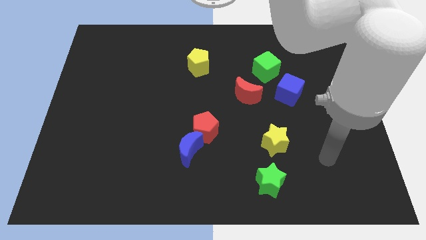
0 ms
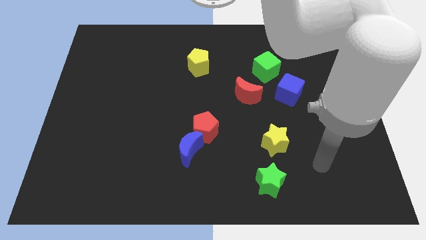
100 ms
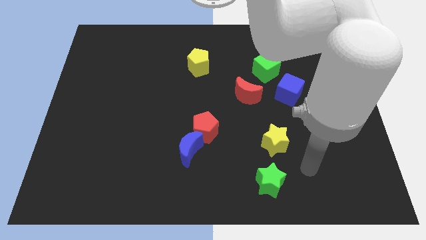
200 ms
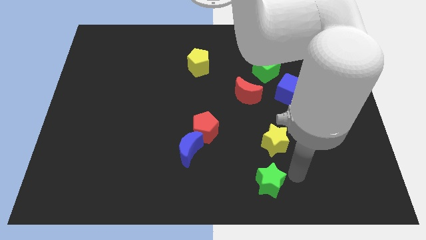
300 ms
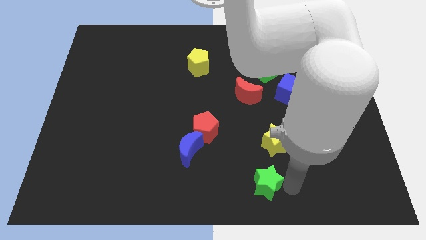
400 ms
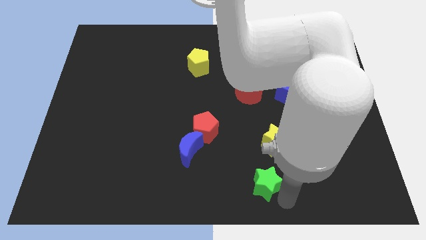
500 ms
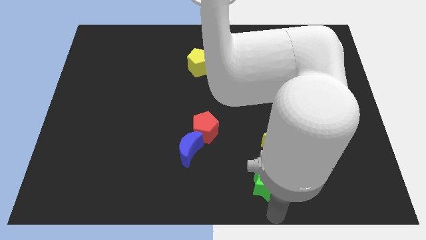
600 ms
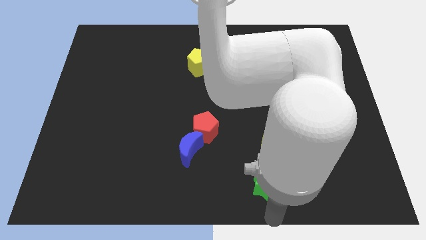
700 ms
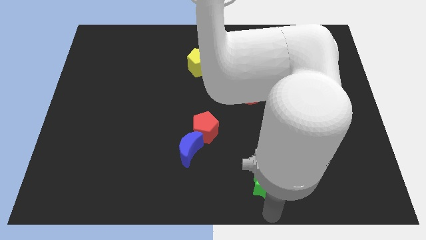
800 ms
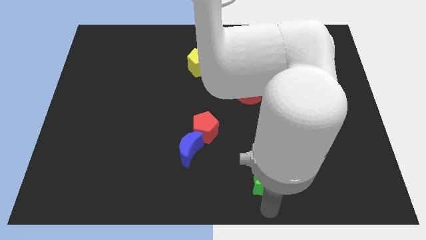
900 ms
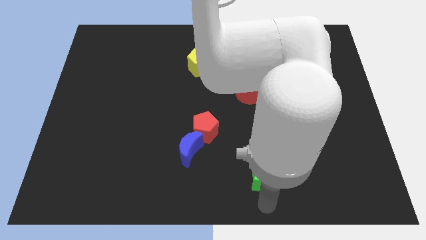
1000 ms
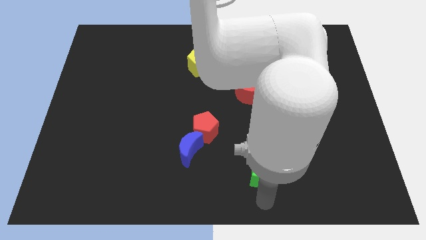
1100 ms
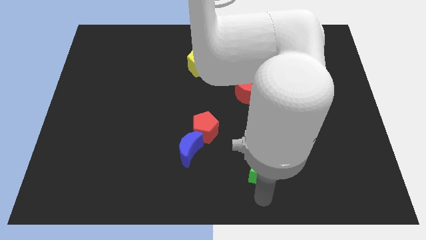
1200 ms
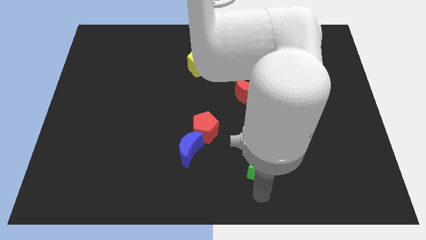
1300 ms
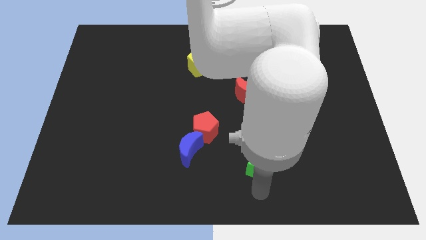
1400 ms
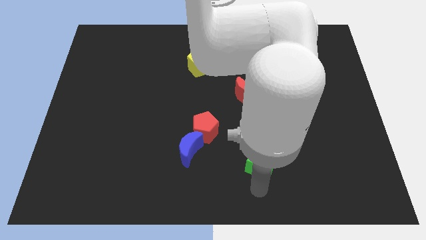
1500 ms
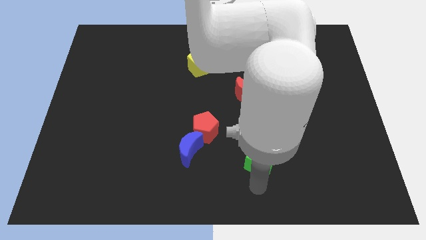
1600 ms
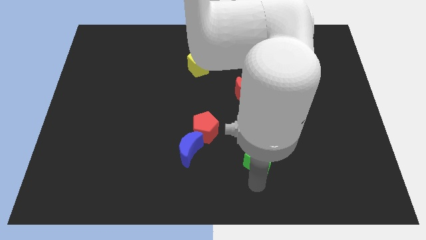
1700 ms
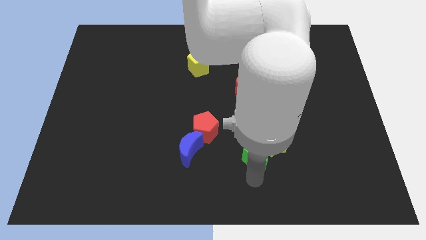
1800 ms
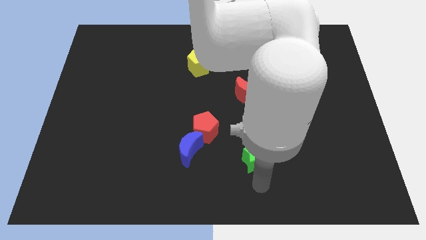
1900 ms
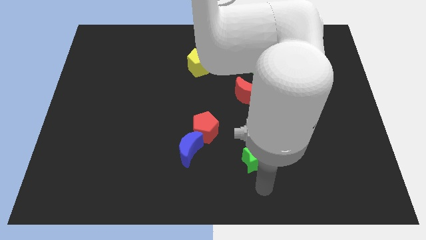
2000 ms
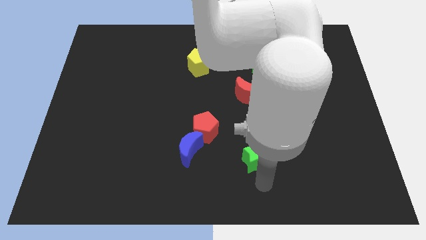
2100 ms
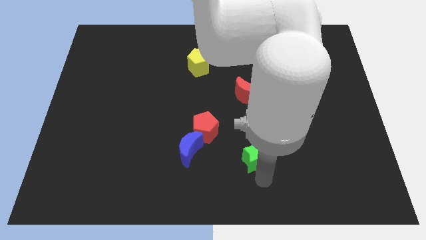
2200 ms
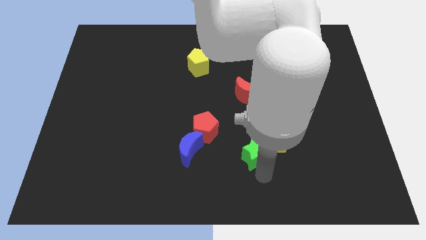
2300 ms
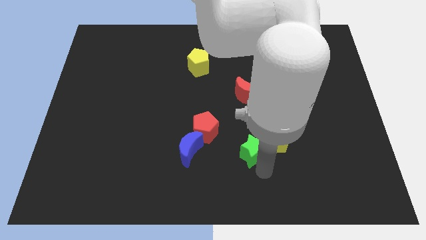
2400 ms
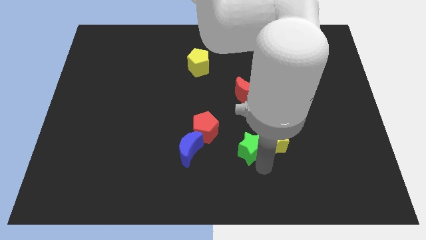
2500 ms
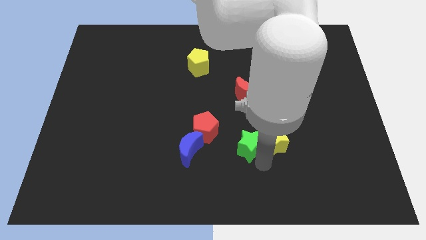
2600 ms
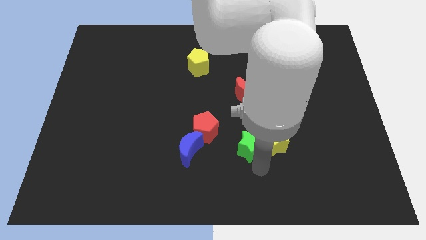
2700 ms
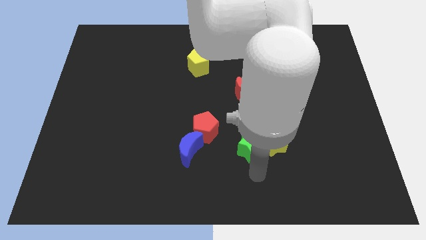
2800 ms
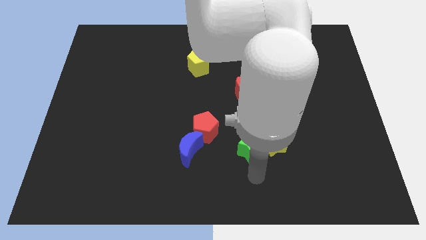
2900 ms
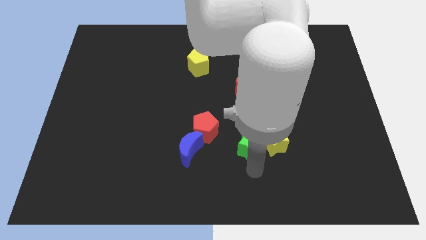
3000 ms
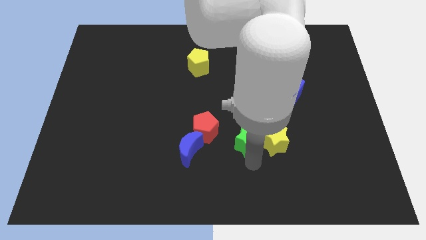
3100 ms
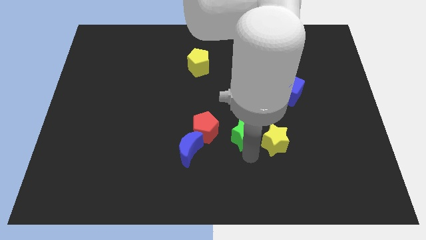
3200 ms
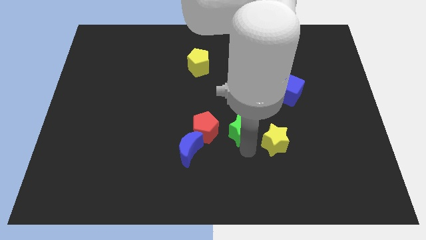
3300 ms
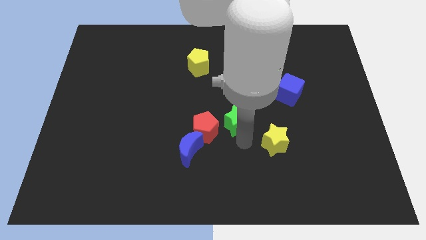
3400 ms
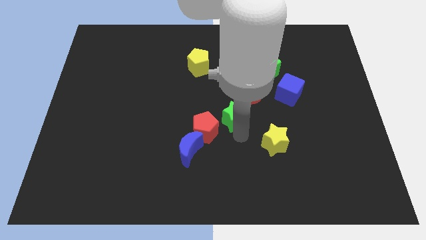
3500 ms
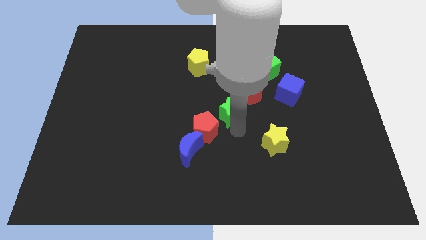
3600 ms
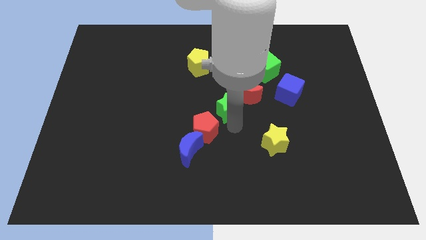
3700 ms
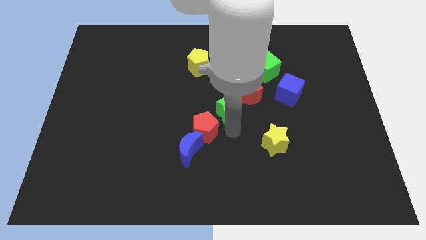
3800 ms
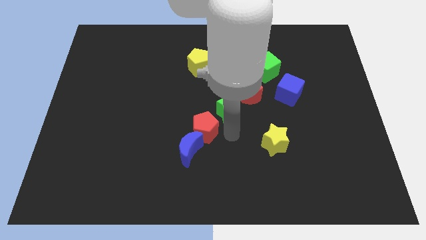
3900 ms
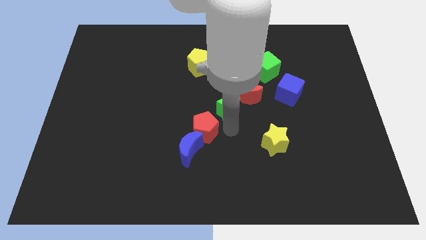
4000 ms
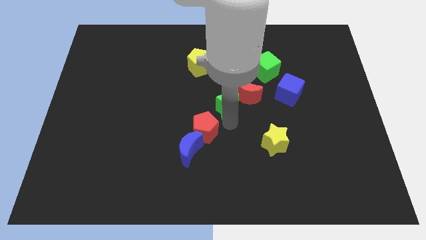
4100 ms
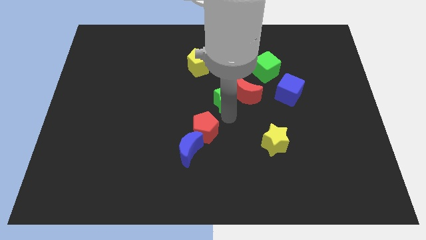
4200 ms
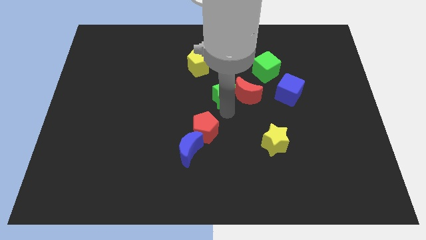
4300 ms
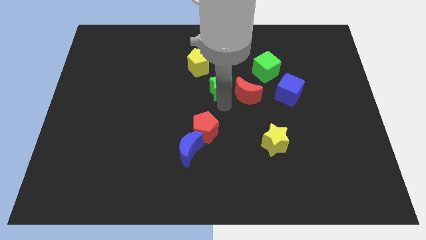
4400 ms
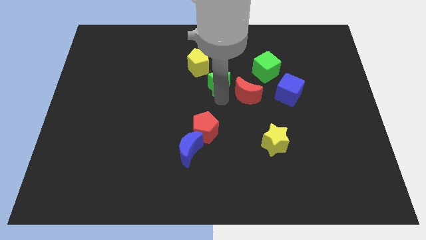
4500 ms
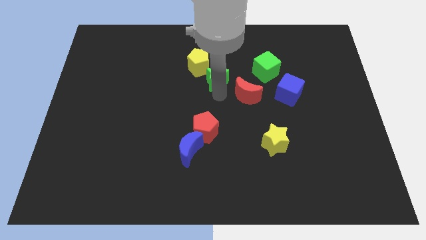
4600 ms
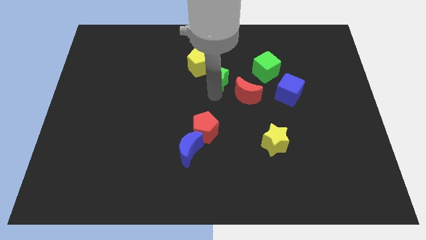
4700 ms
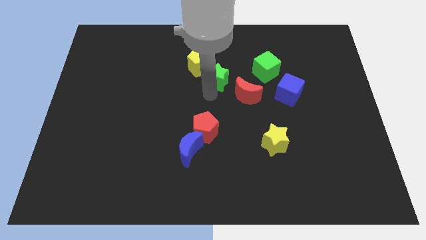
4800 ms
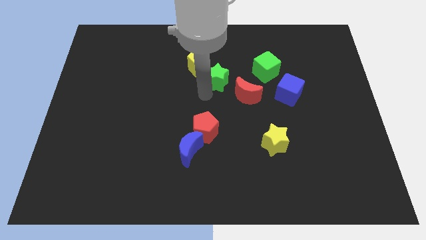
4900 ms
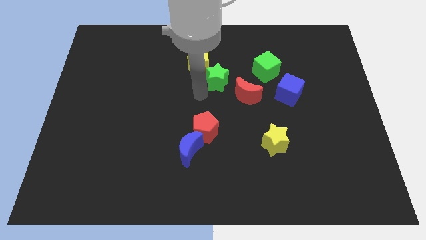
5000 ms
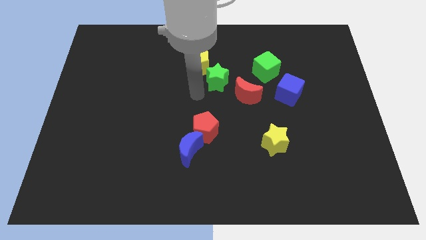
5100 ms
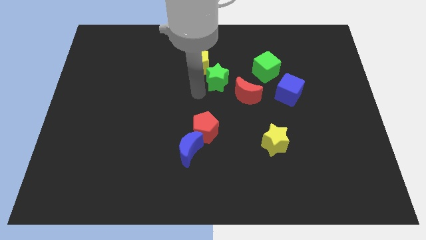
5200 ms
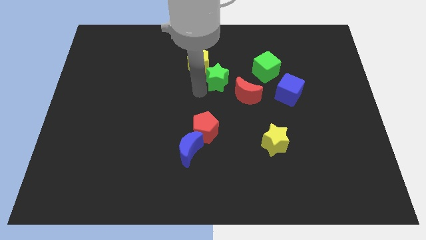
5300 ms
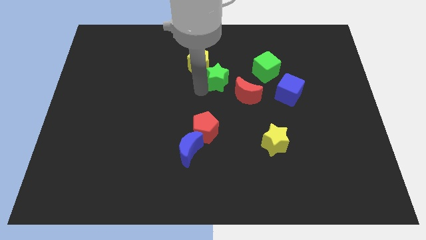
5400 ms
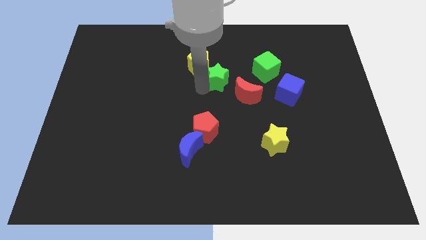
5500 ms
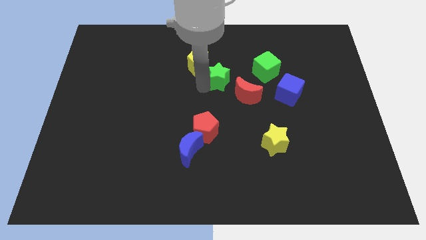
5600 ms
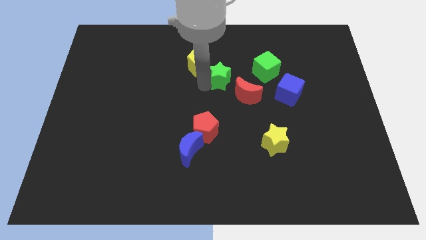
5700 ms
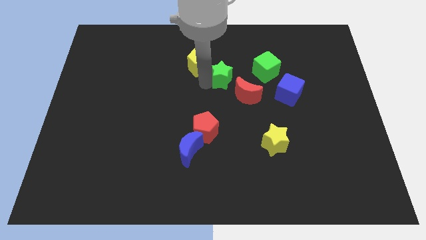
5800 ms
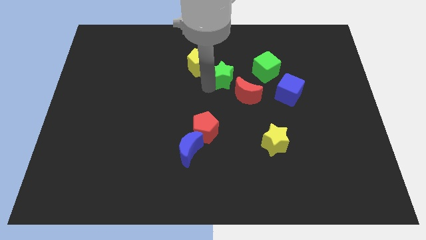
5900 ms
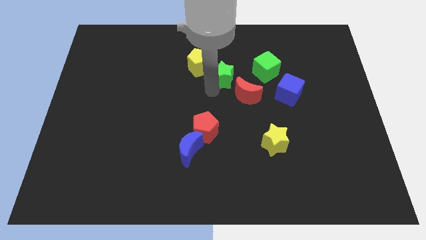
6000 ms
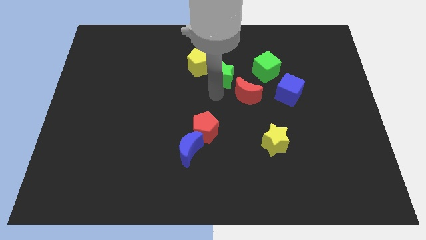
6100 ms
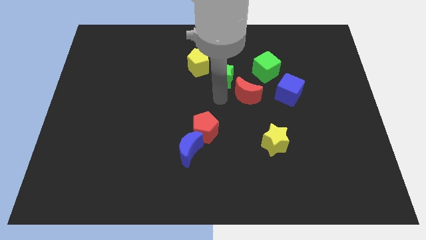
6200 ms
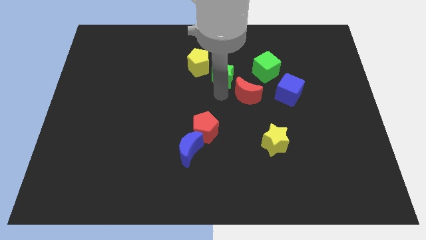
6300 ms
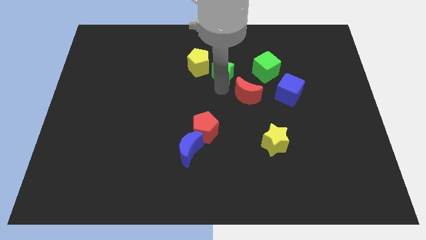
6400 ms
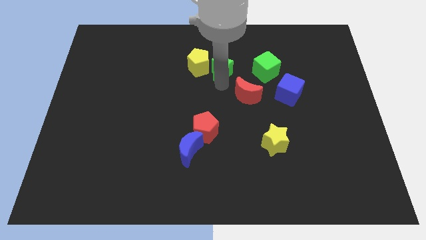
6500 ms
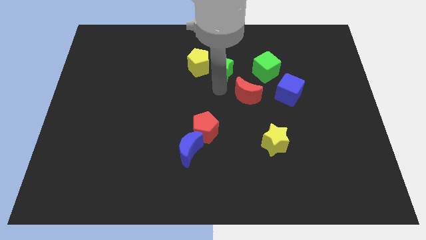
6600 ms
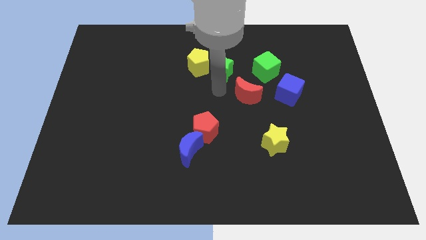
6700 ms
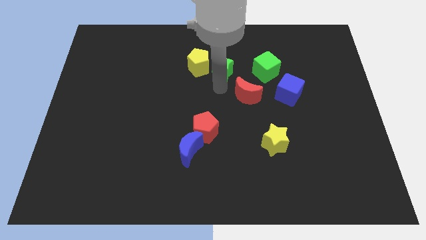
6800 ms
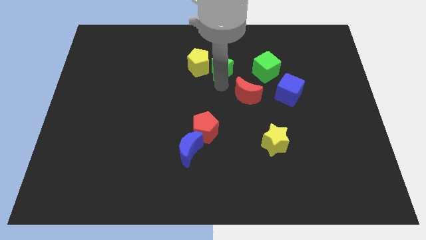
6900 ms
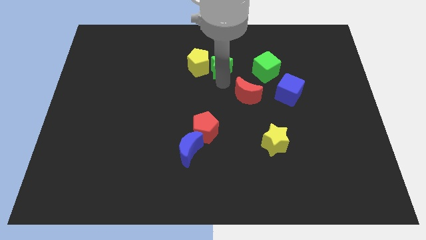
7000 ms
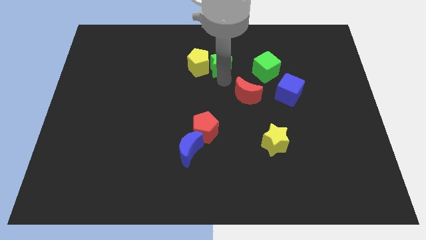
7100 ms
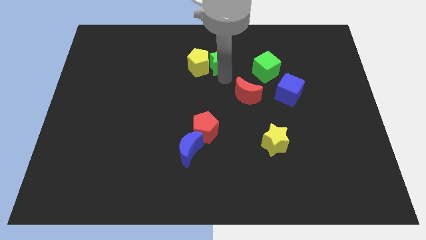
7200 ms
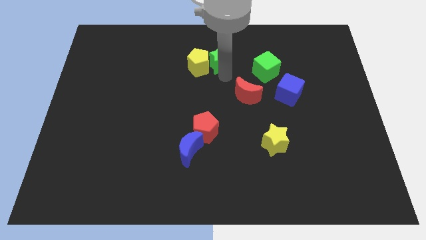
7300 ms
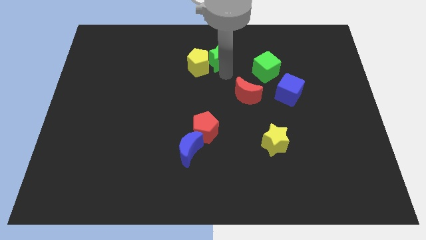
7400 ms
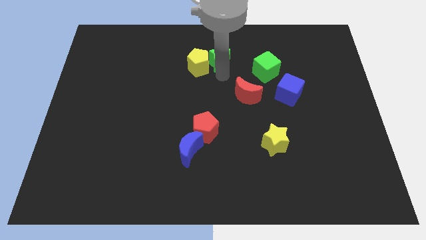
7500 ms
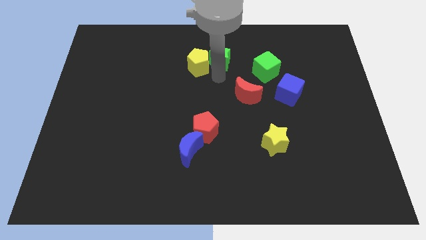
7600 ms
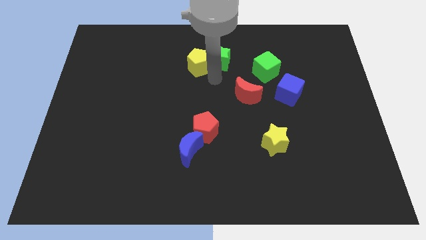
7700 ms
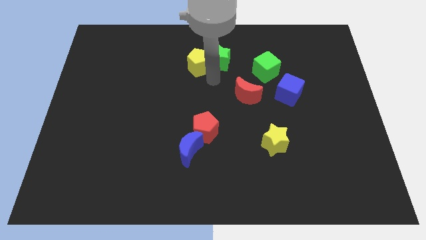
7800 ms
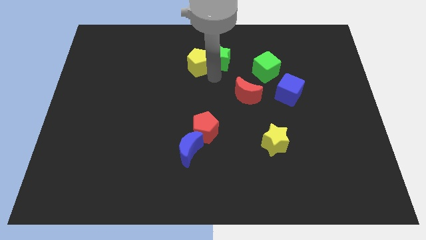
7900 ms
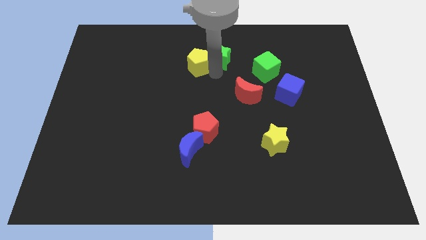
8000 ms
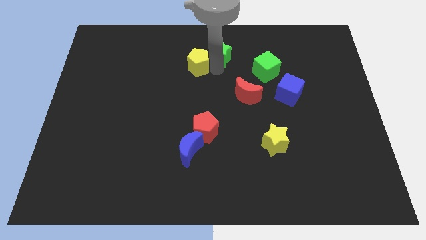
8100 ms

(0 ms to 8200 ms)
push the green star to the top side
